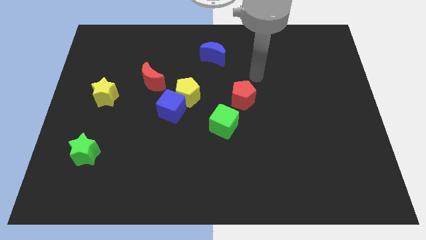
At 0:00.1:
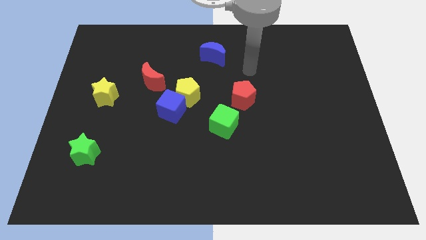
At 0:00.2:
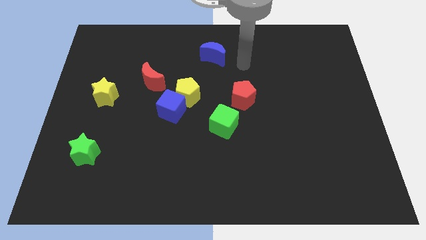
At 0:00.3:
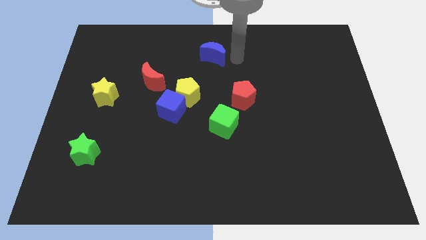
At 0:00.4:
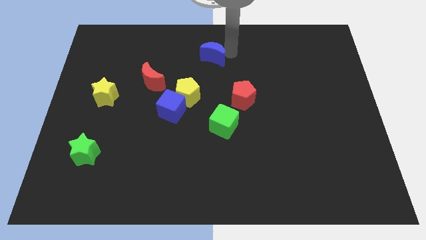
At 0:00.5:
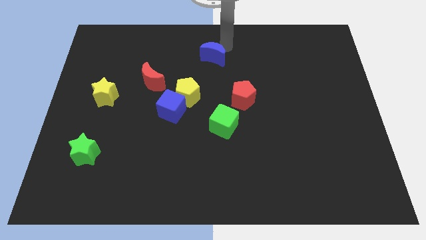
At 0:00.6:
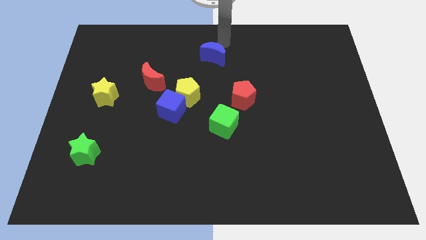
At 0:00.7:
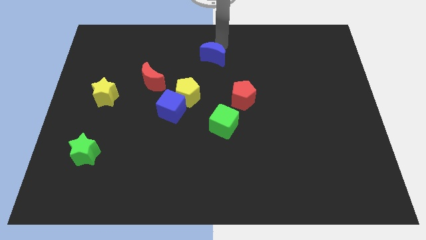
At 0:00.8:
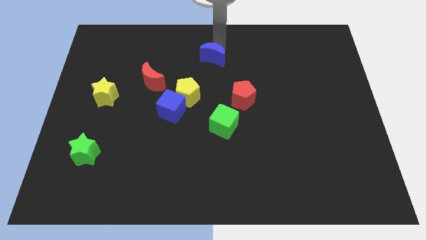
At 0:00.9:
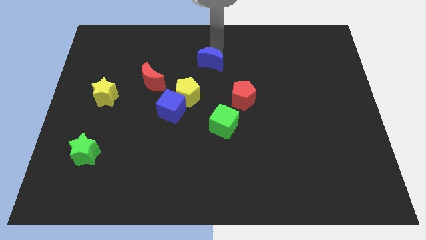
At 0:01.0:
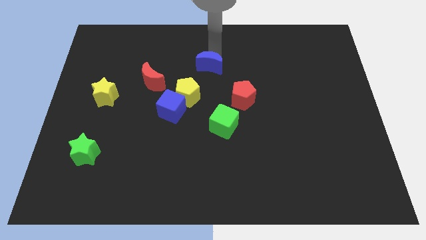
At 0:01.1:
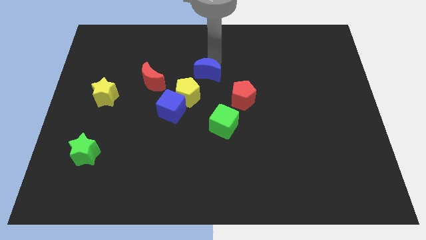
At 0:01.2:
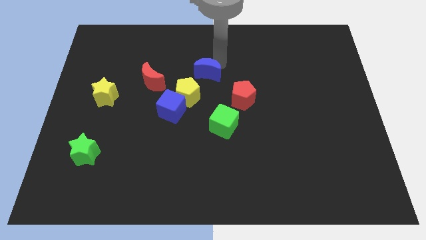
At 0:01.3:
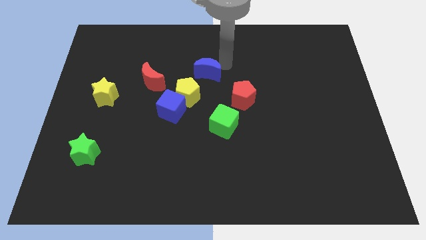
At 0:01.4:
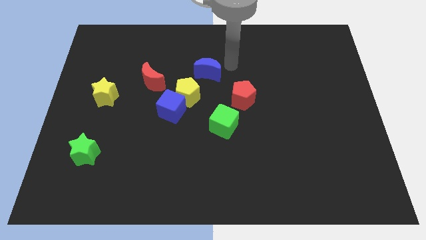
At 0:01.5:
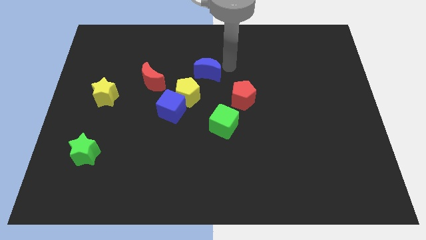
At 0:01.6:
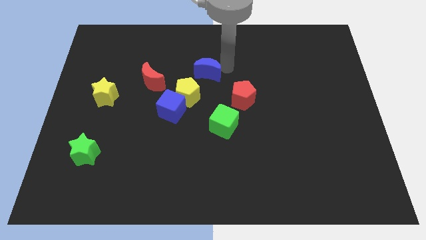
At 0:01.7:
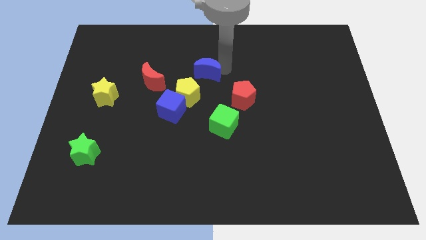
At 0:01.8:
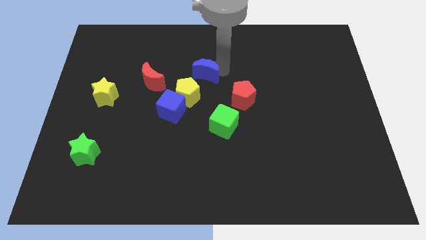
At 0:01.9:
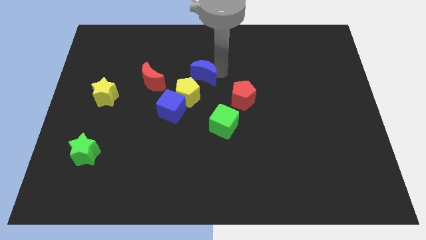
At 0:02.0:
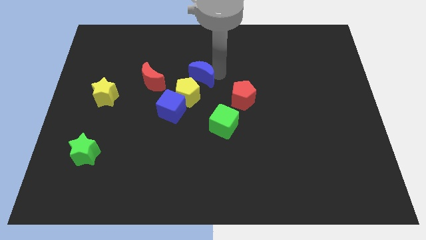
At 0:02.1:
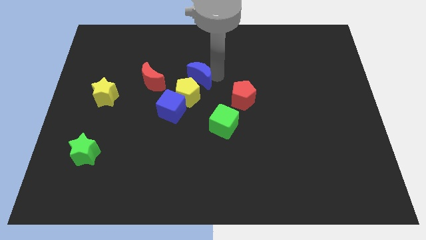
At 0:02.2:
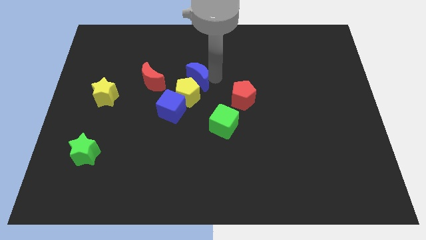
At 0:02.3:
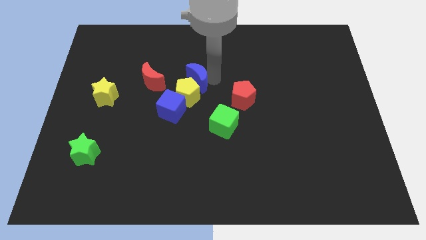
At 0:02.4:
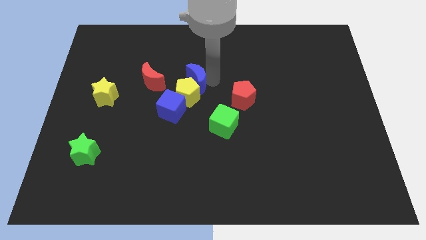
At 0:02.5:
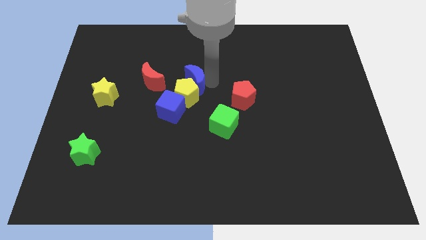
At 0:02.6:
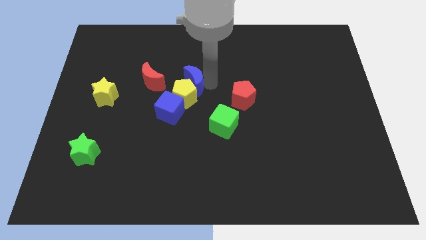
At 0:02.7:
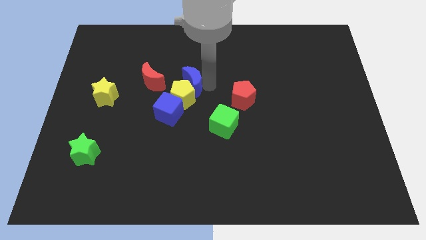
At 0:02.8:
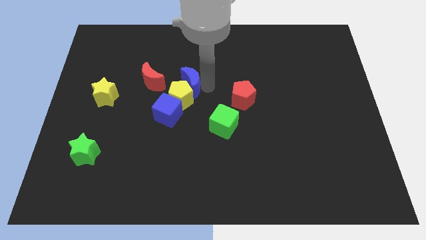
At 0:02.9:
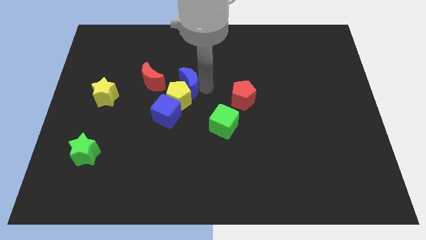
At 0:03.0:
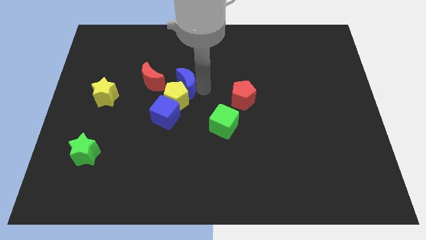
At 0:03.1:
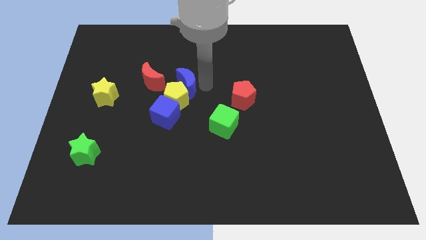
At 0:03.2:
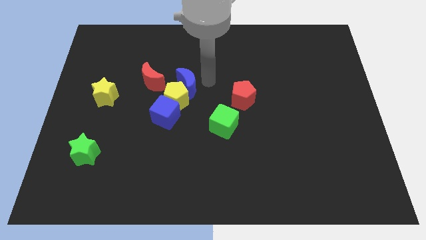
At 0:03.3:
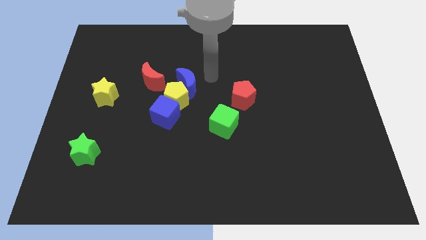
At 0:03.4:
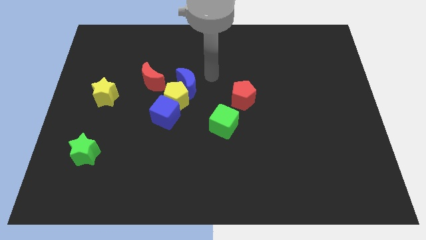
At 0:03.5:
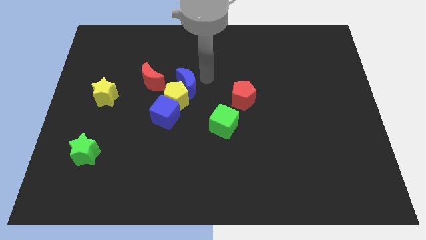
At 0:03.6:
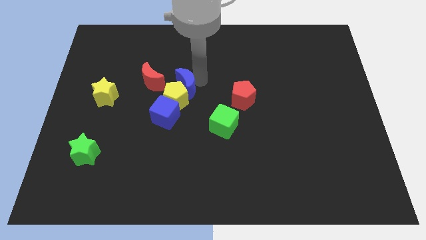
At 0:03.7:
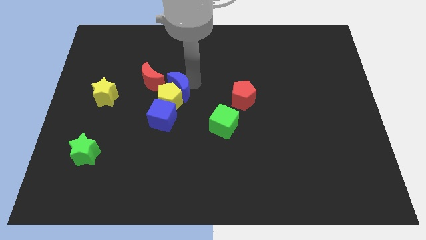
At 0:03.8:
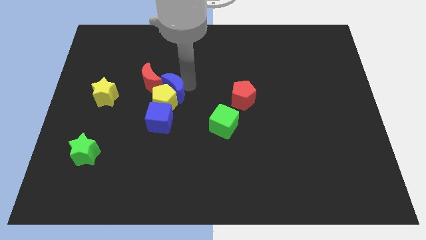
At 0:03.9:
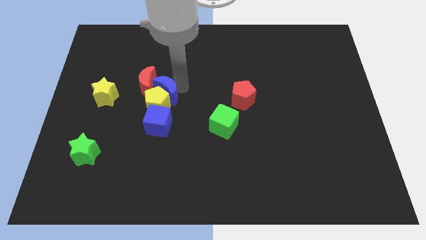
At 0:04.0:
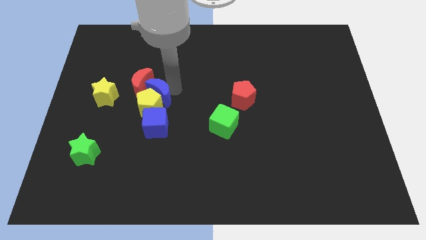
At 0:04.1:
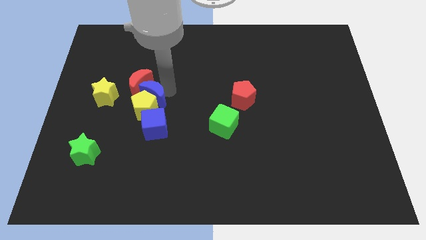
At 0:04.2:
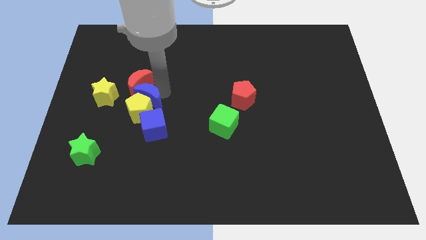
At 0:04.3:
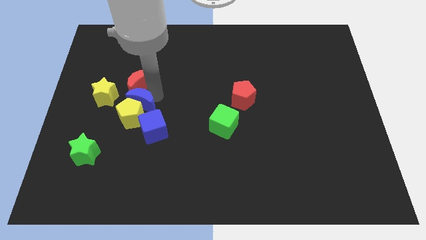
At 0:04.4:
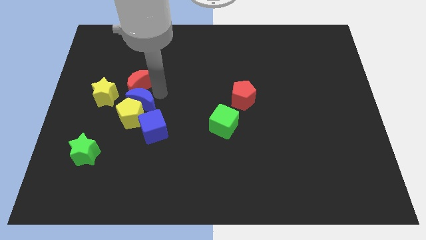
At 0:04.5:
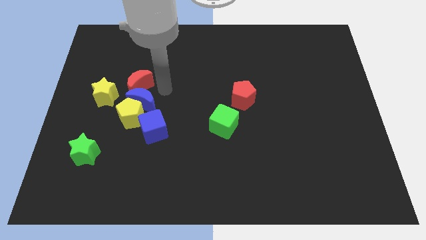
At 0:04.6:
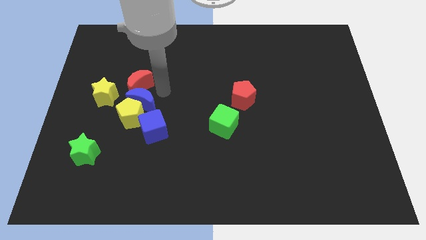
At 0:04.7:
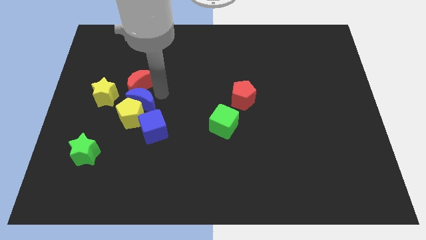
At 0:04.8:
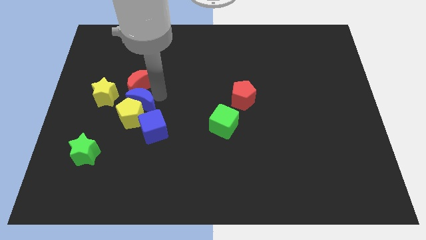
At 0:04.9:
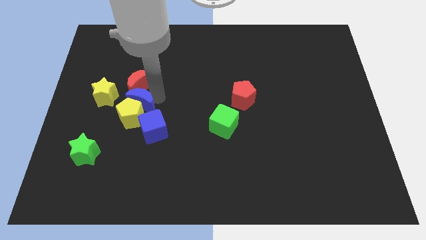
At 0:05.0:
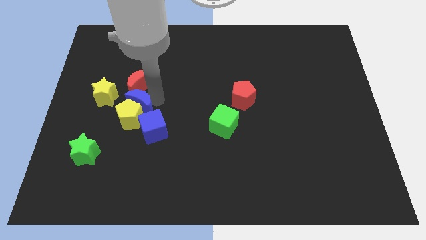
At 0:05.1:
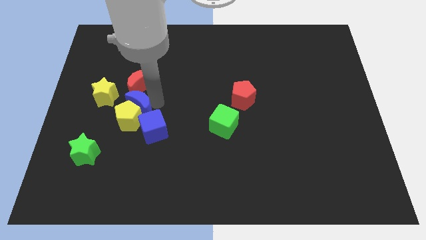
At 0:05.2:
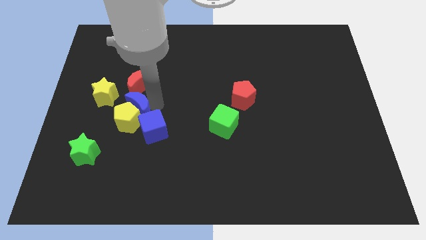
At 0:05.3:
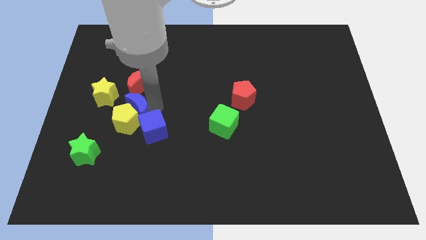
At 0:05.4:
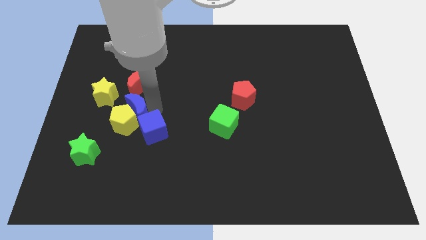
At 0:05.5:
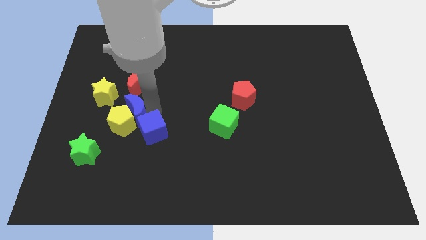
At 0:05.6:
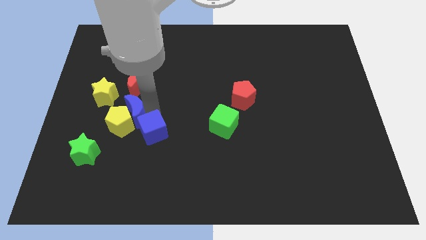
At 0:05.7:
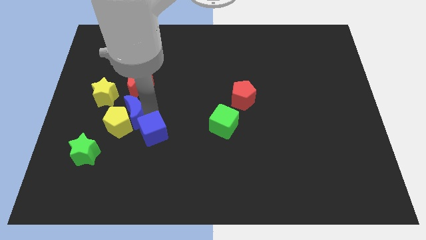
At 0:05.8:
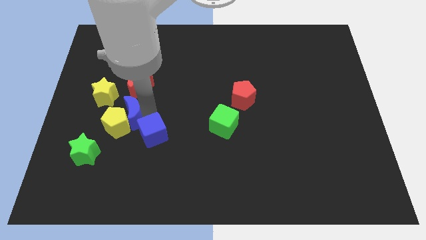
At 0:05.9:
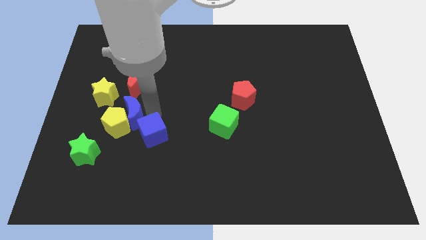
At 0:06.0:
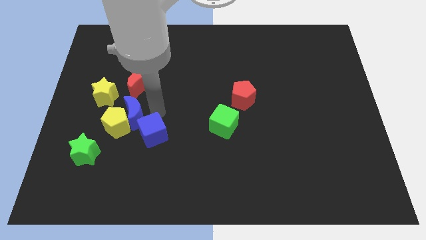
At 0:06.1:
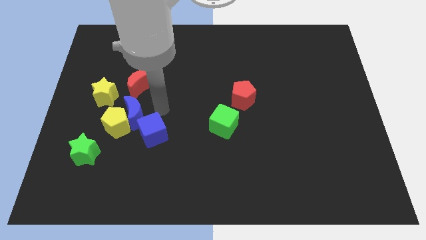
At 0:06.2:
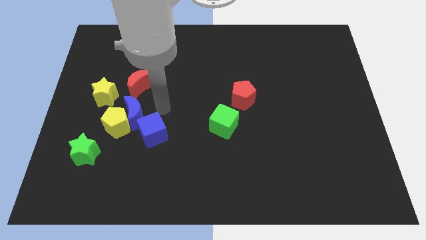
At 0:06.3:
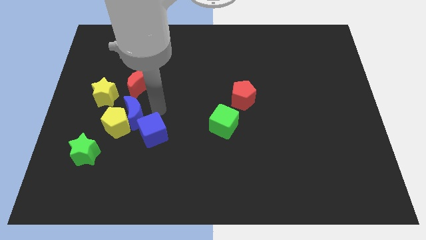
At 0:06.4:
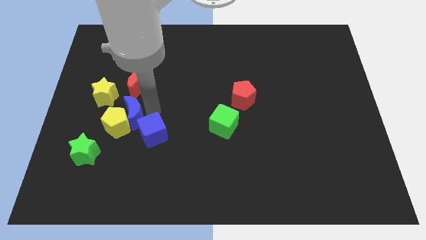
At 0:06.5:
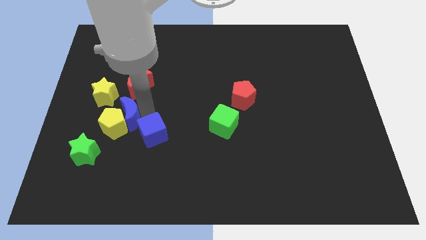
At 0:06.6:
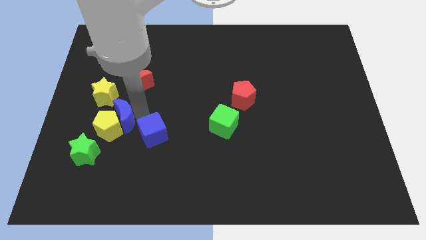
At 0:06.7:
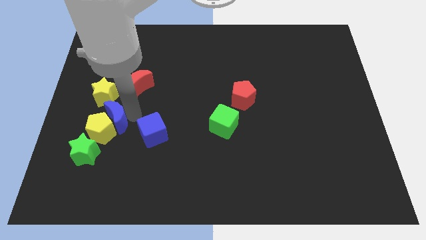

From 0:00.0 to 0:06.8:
move the blue moon to the bottom of the yellow star

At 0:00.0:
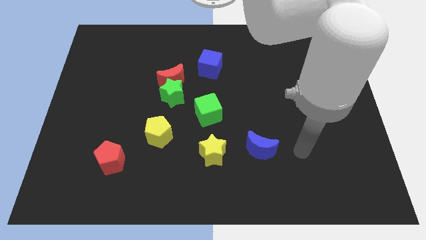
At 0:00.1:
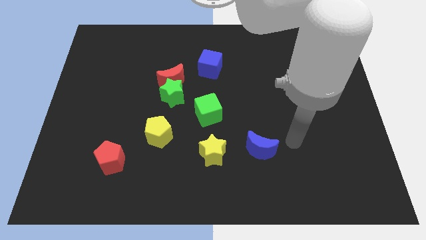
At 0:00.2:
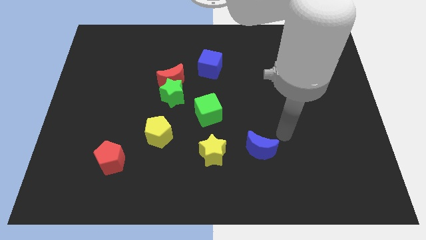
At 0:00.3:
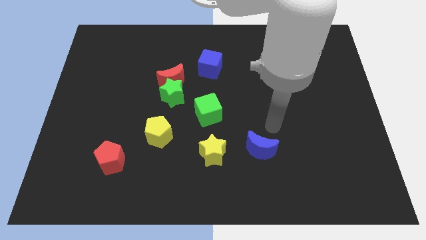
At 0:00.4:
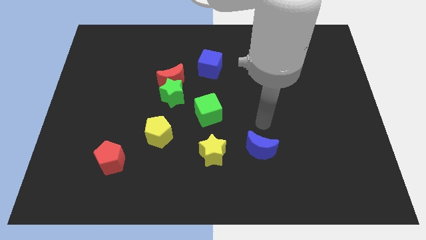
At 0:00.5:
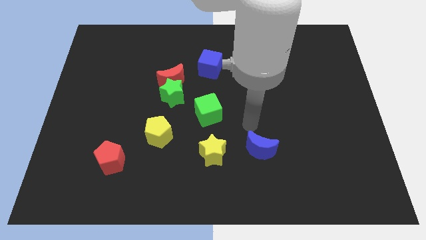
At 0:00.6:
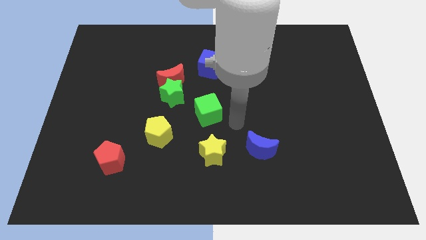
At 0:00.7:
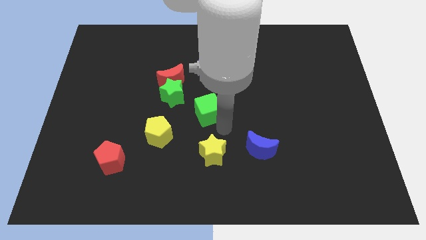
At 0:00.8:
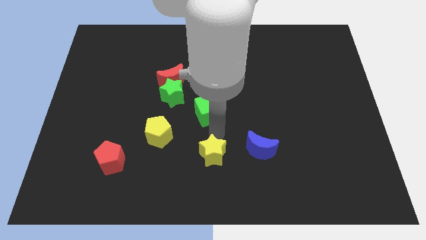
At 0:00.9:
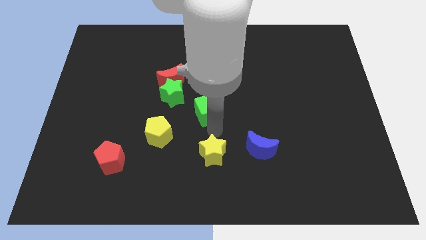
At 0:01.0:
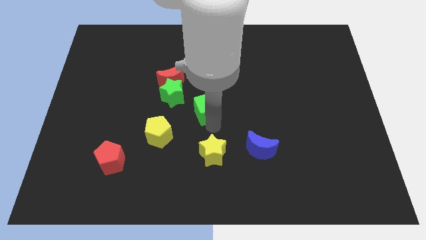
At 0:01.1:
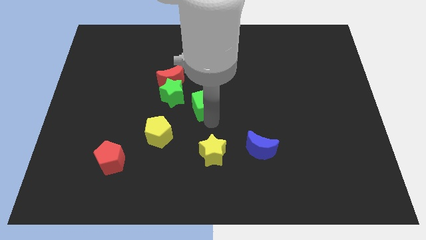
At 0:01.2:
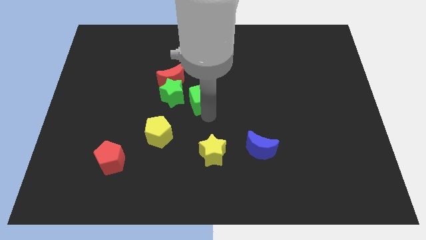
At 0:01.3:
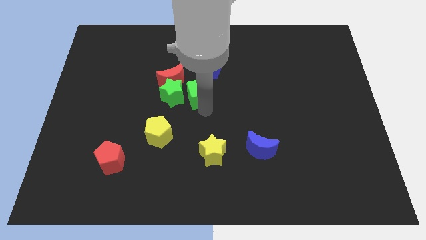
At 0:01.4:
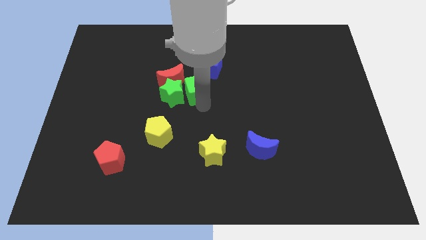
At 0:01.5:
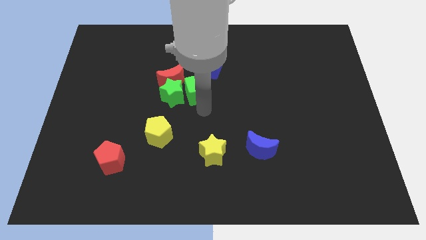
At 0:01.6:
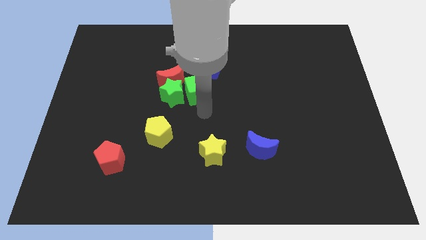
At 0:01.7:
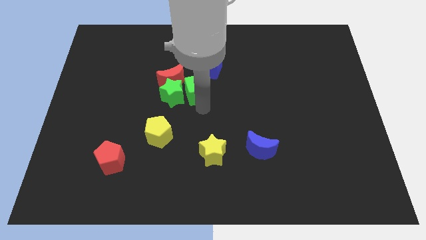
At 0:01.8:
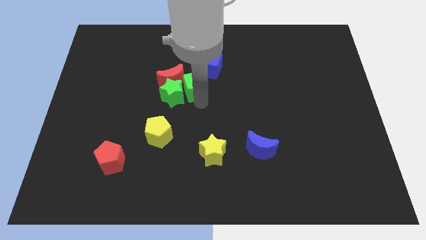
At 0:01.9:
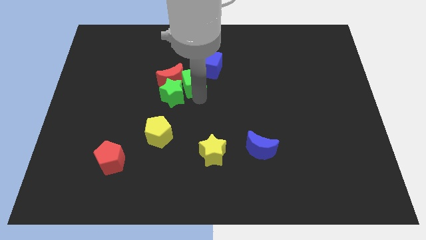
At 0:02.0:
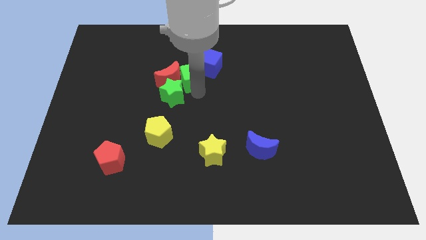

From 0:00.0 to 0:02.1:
put the green cube just left of the blue cube
